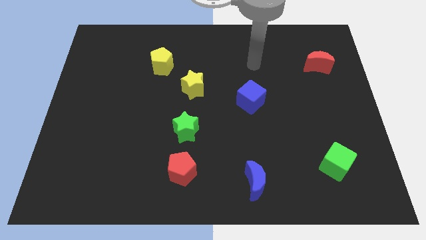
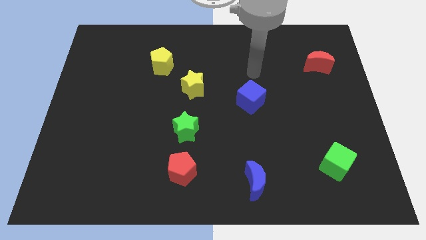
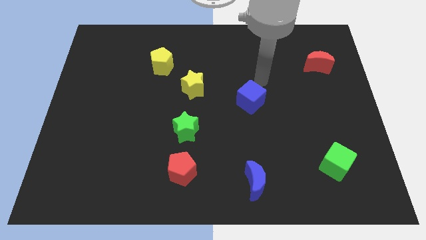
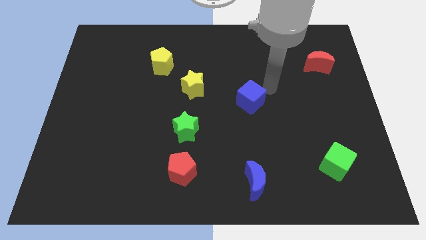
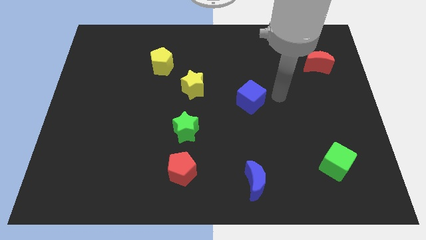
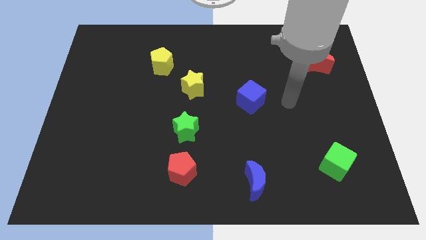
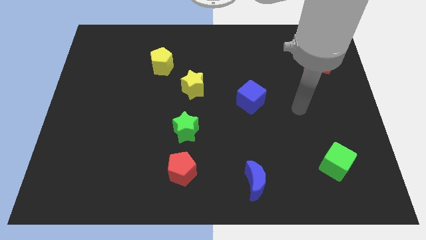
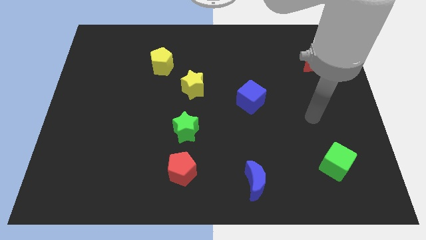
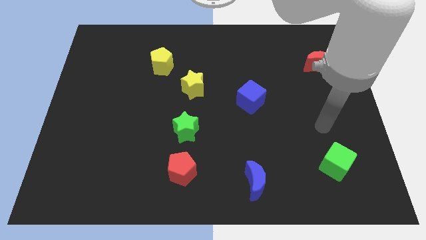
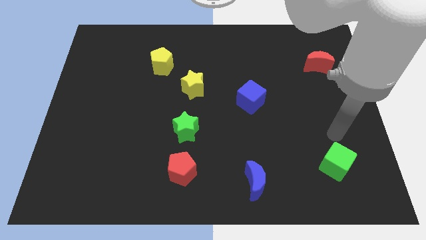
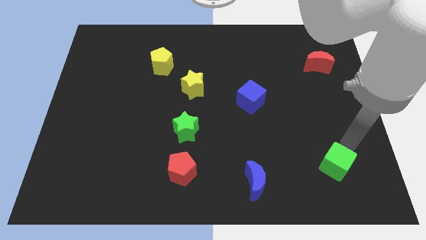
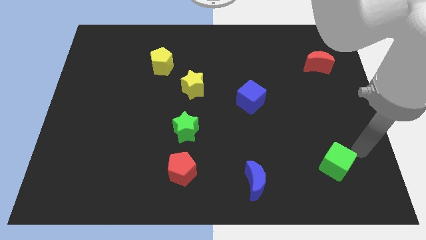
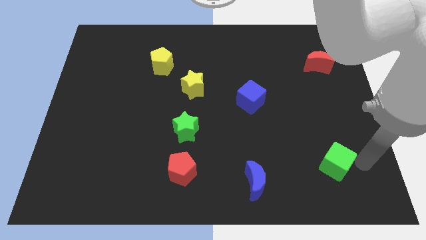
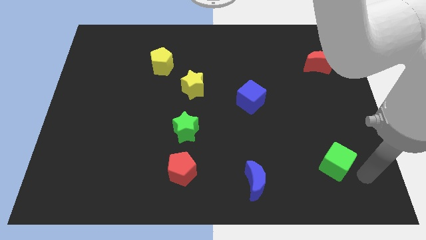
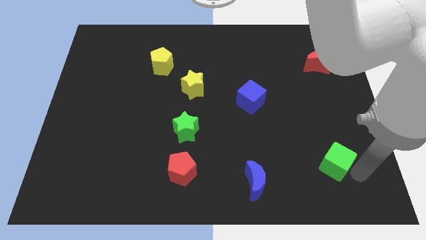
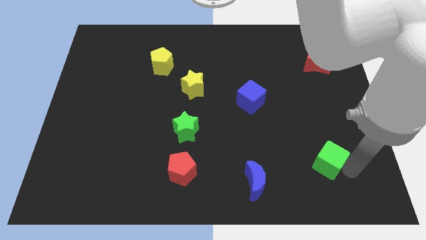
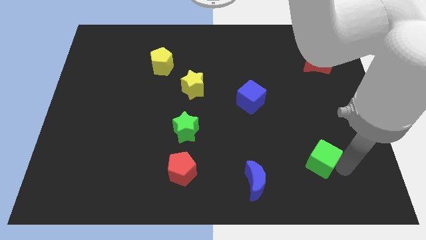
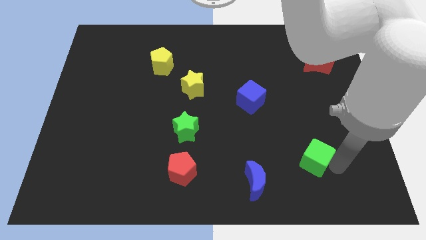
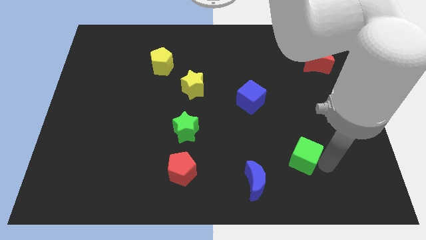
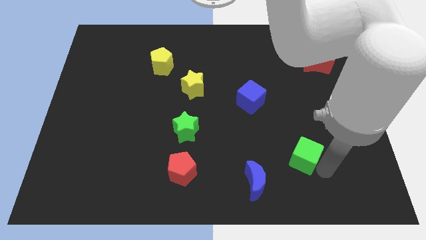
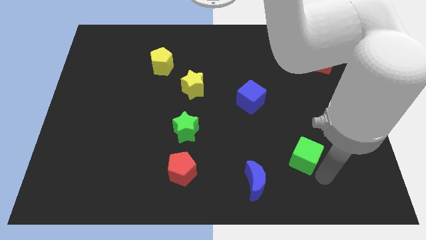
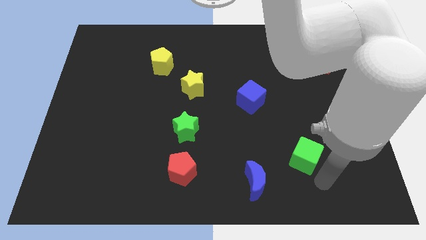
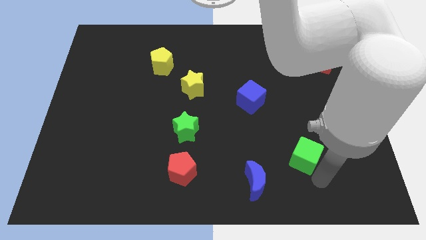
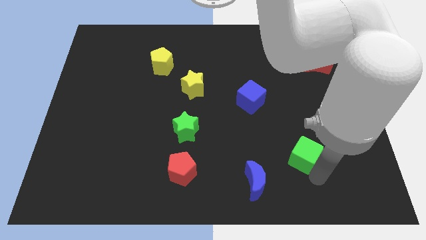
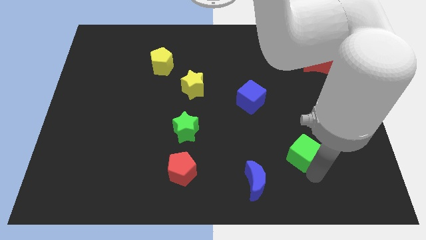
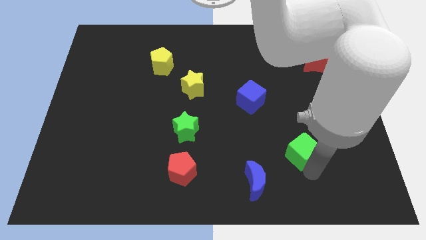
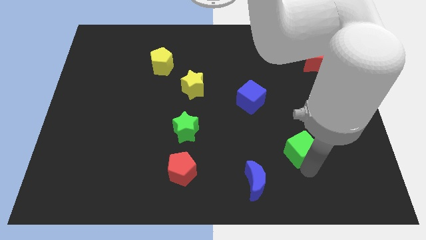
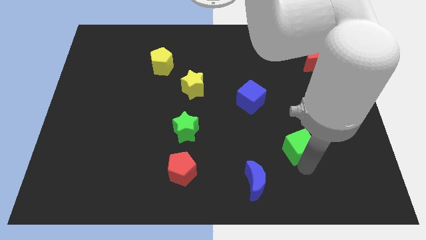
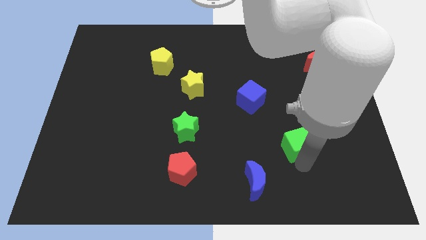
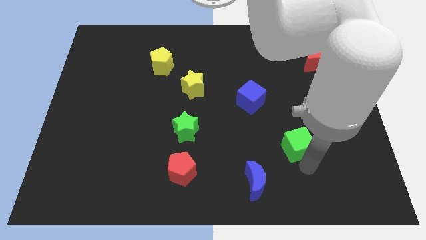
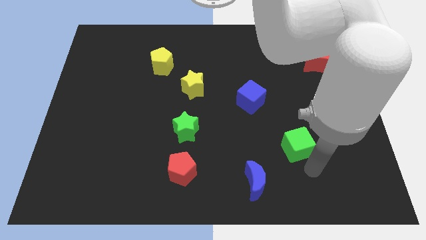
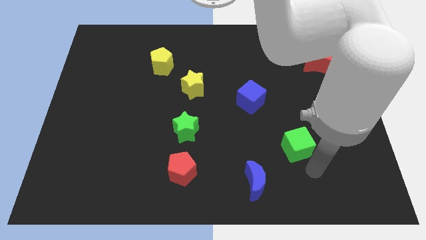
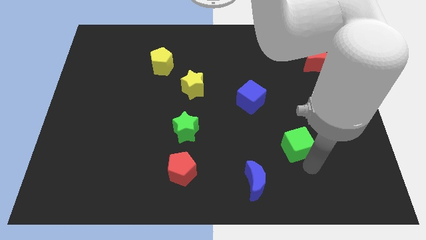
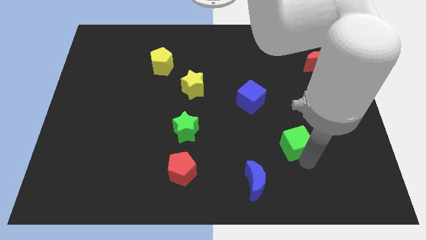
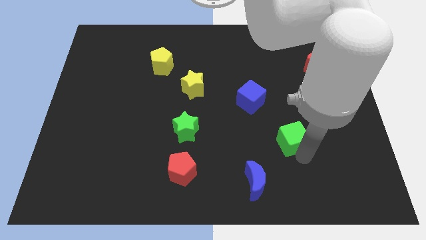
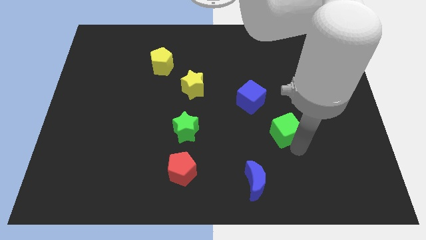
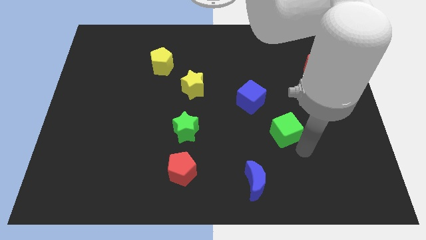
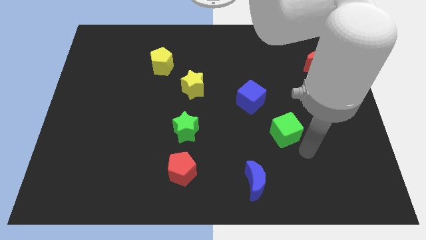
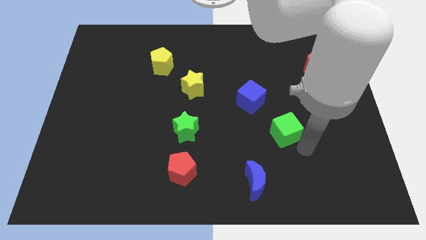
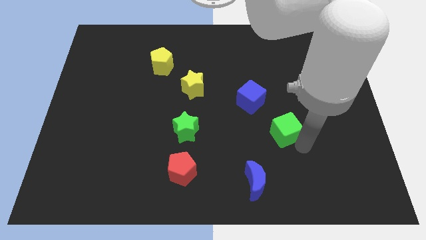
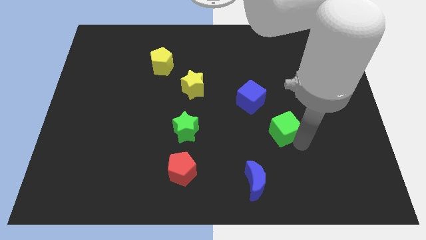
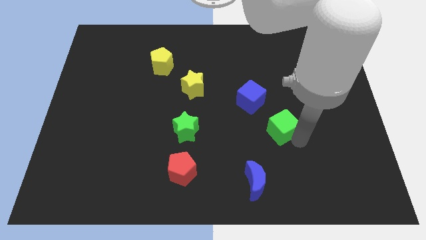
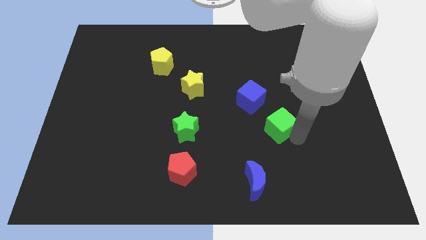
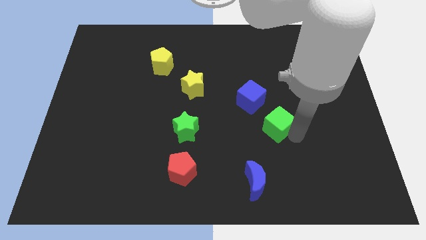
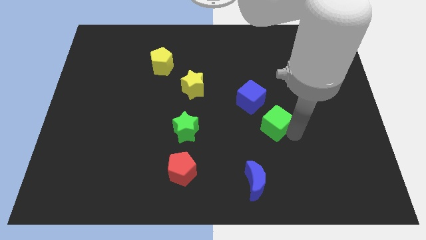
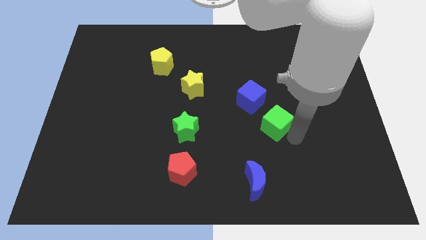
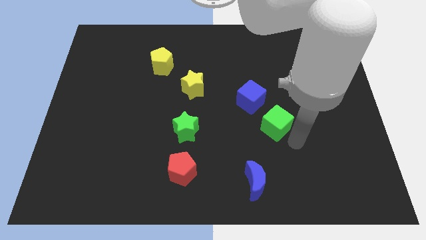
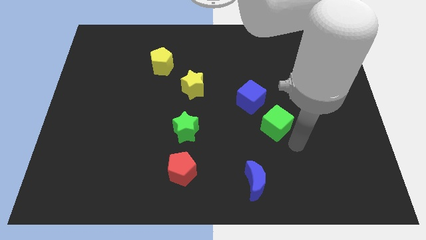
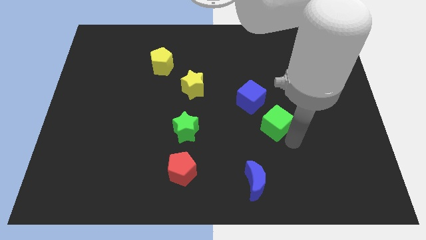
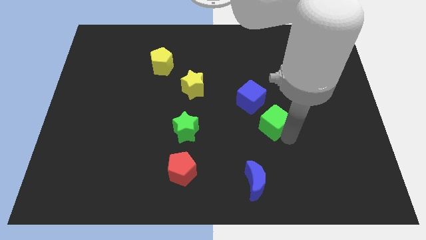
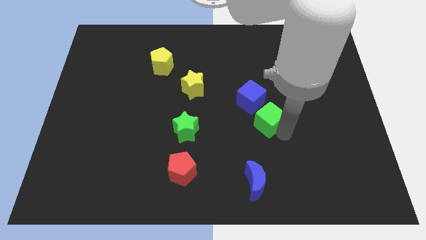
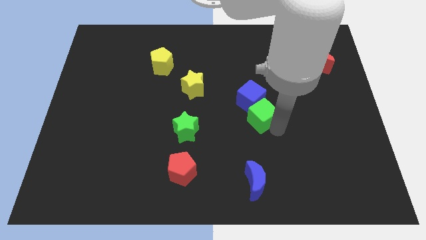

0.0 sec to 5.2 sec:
put the green cube next to the blue cube

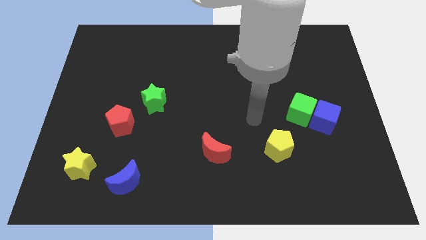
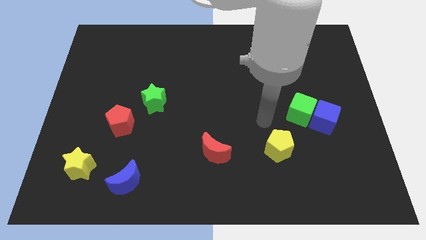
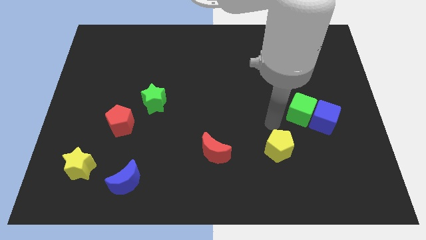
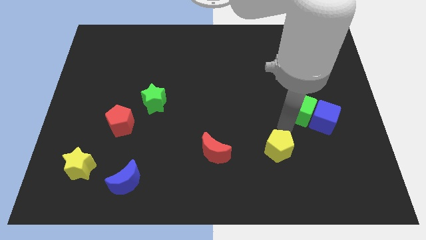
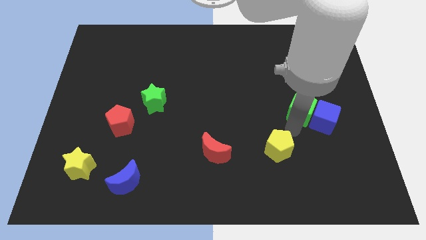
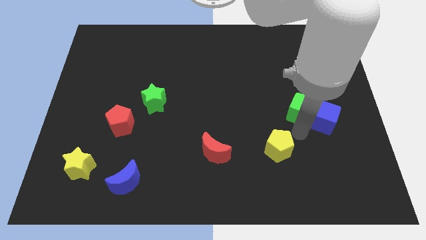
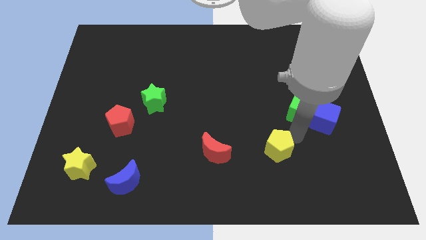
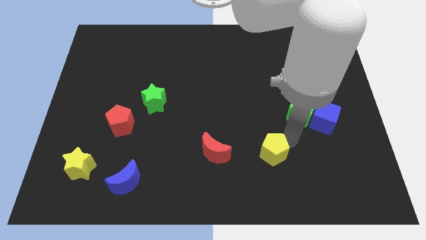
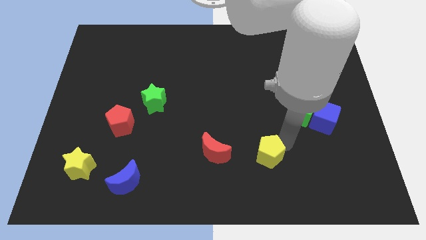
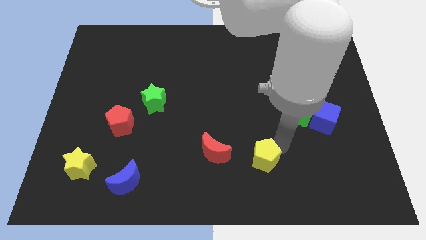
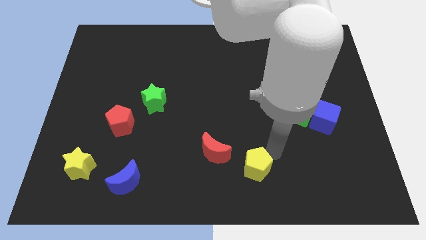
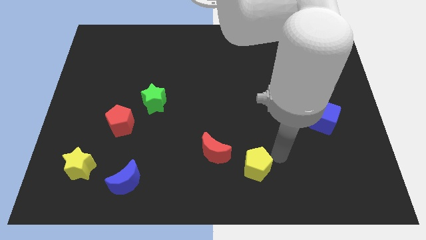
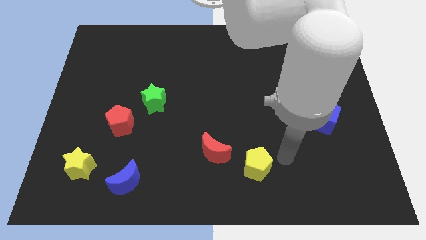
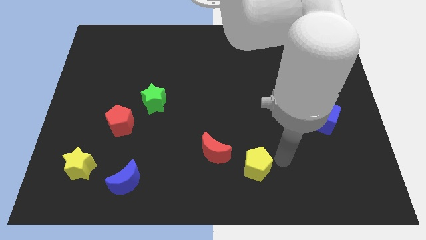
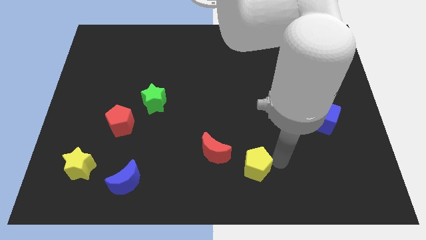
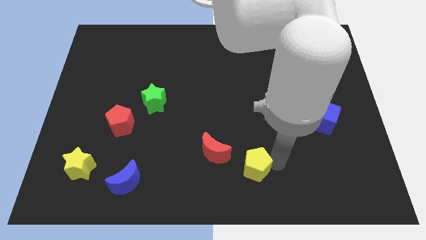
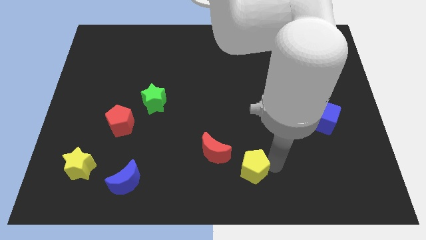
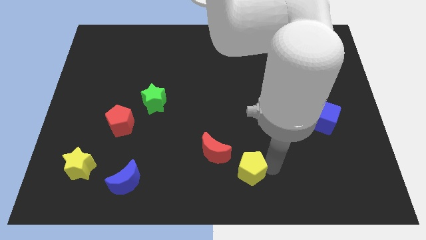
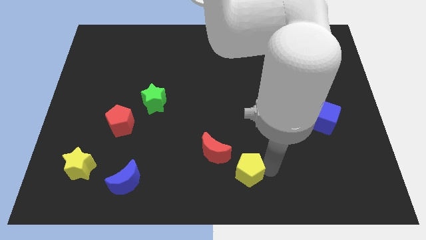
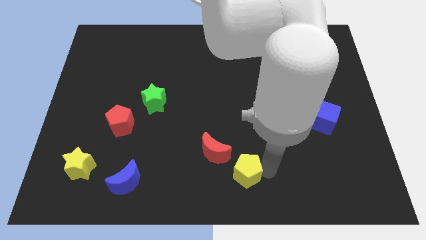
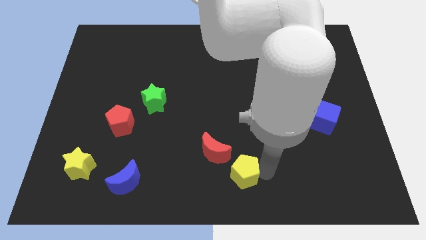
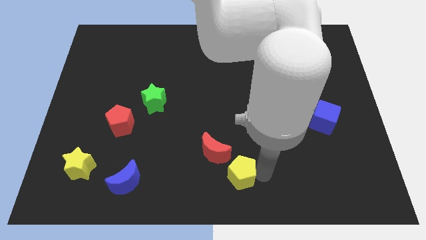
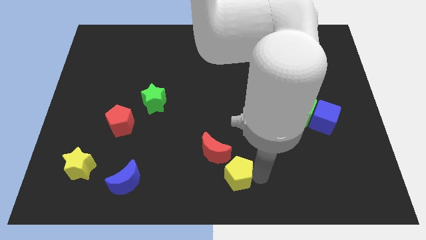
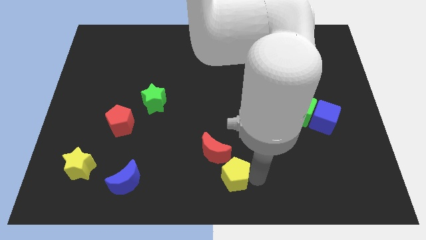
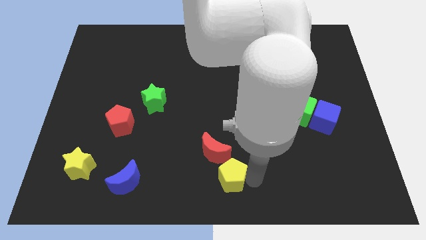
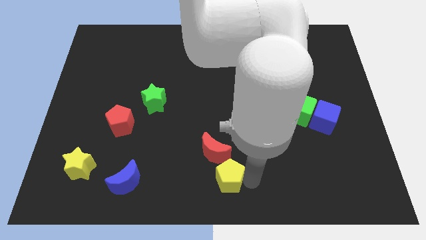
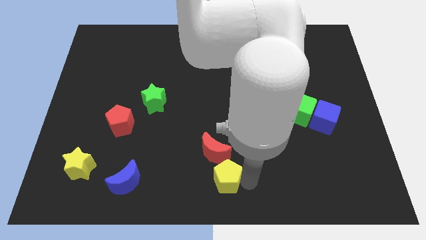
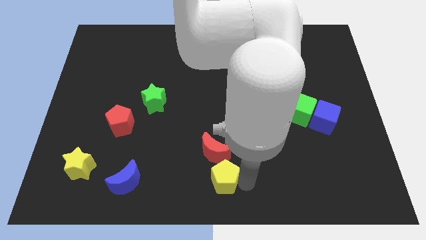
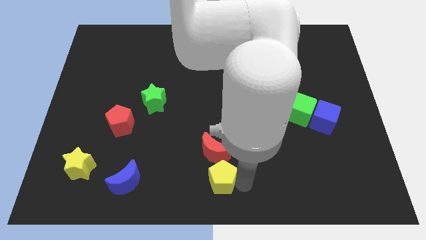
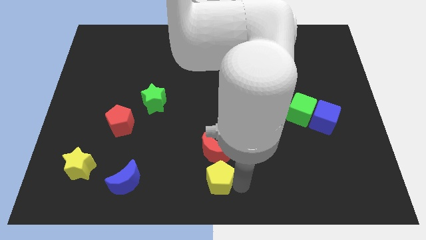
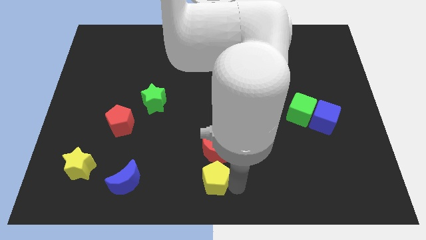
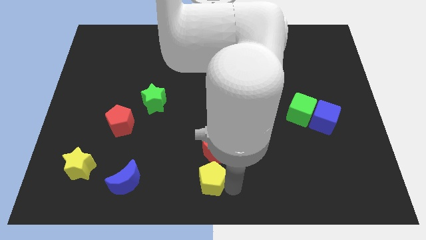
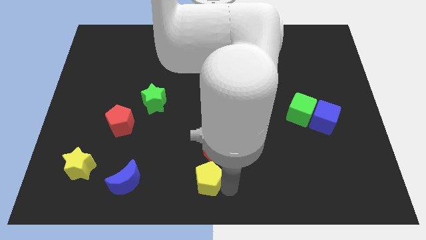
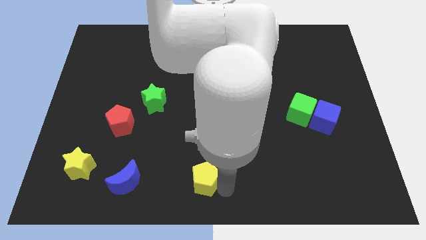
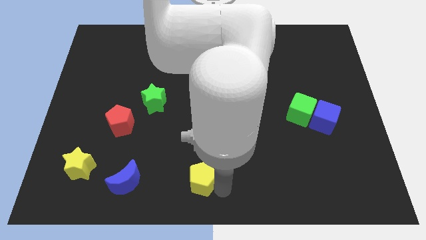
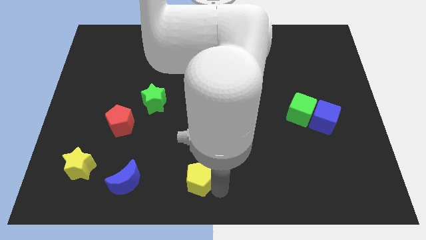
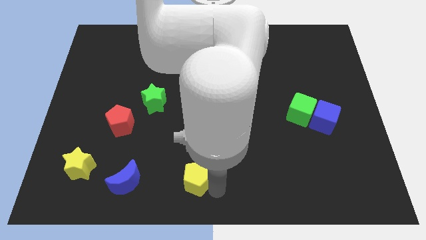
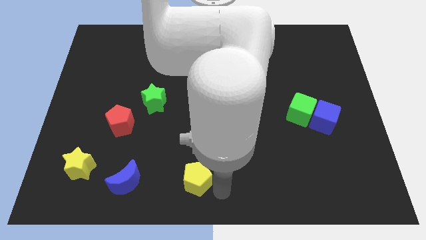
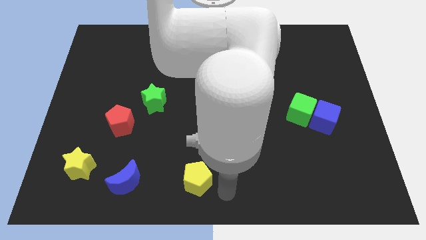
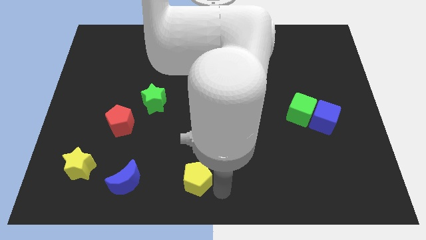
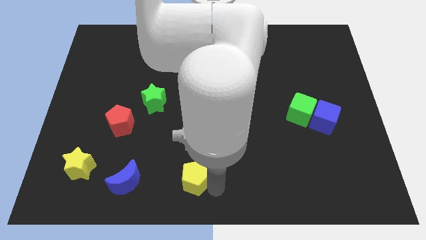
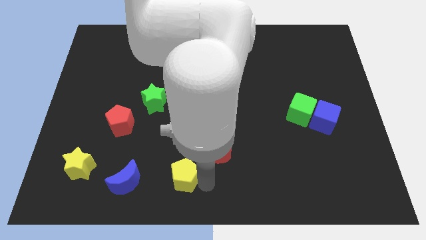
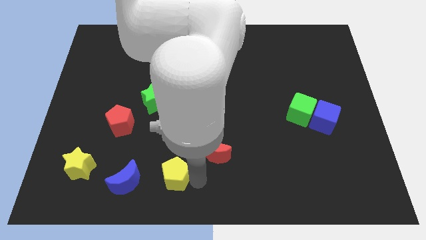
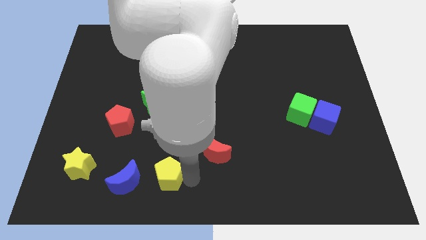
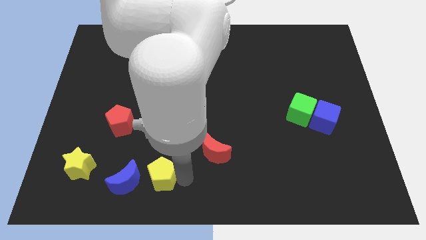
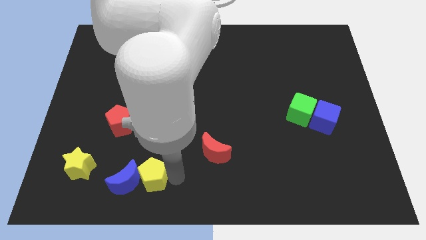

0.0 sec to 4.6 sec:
push the yellow pentagon next to the blue moon
